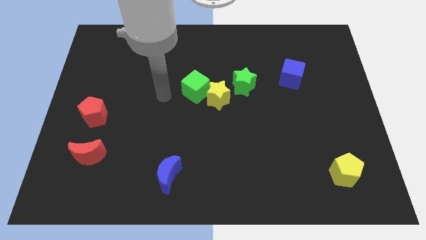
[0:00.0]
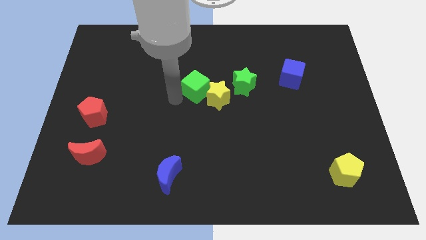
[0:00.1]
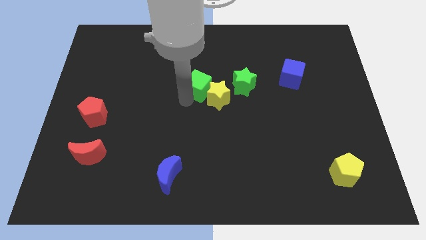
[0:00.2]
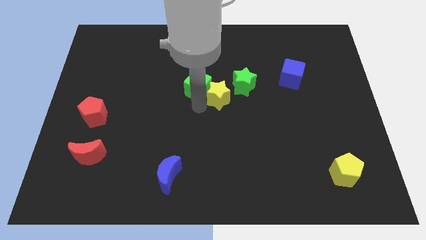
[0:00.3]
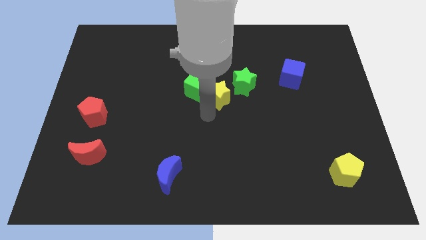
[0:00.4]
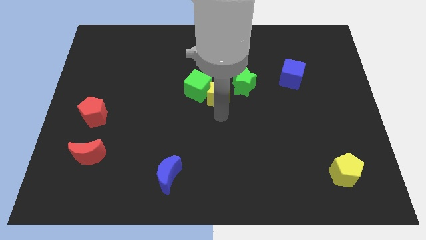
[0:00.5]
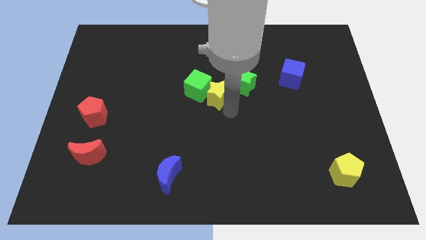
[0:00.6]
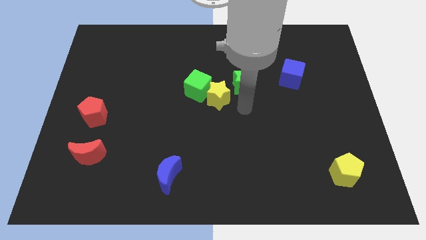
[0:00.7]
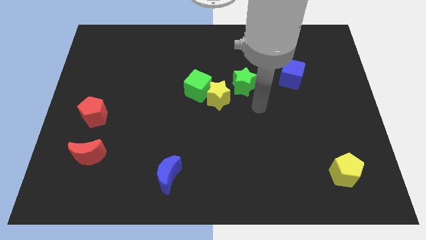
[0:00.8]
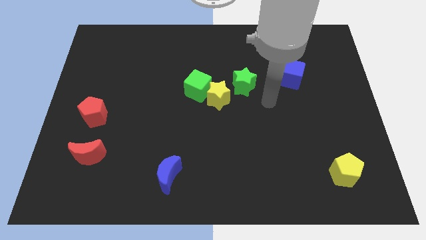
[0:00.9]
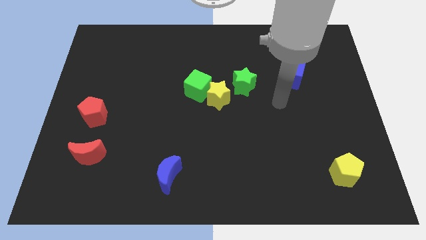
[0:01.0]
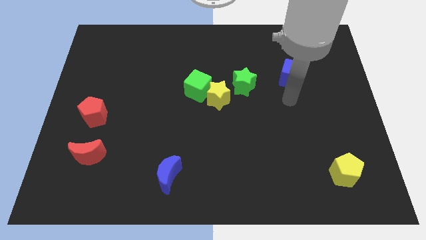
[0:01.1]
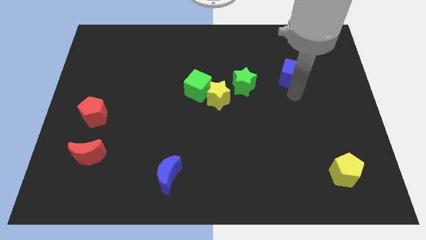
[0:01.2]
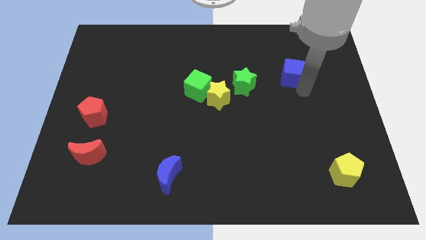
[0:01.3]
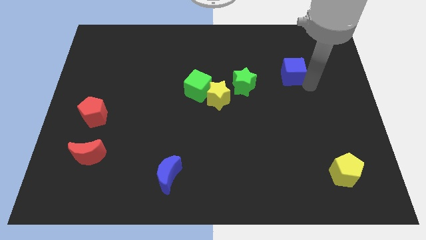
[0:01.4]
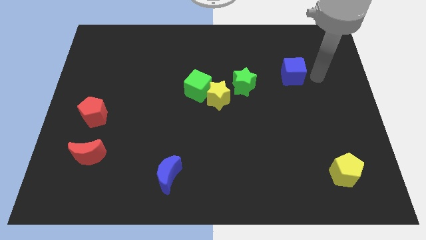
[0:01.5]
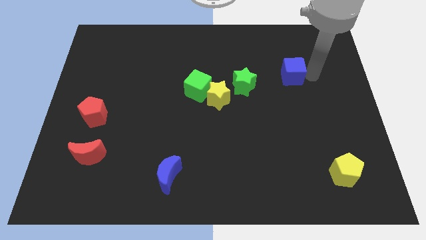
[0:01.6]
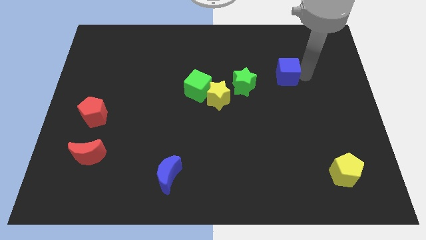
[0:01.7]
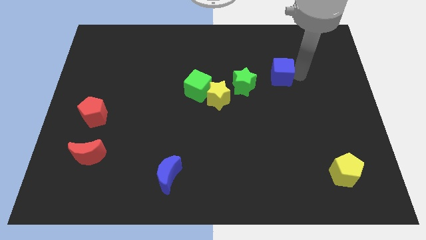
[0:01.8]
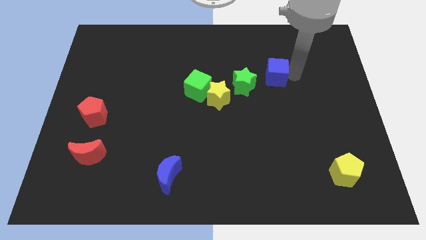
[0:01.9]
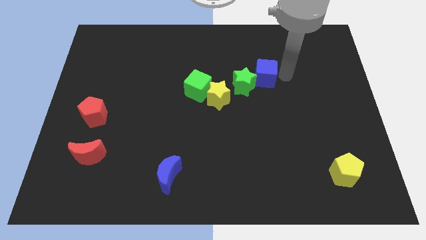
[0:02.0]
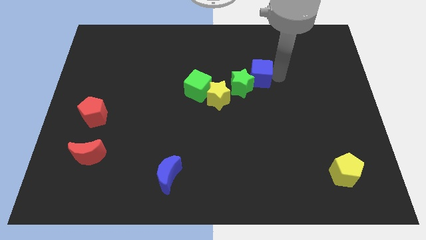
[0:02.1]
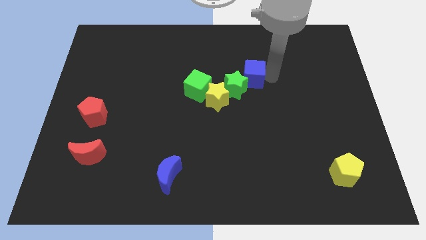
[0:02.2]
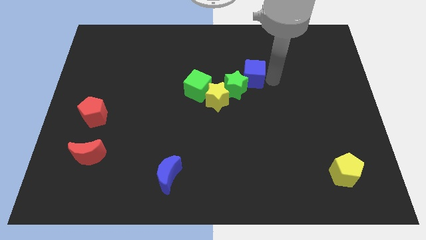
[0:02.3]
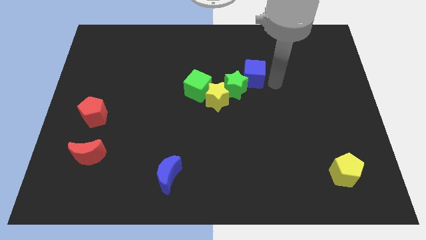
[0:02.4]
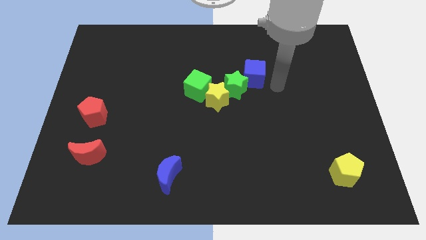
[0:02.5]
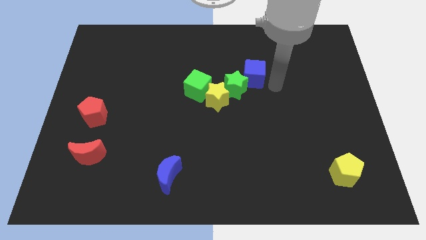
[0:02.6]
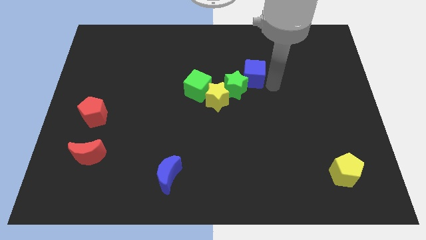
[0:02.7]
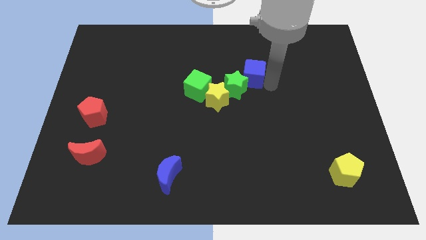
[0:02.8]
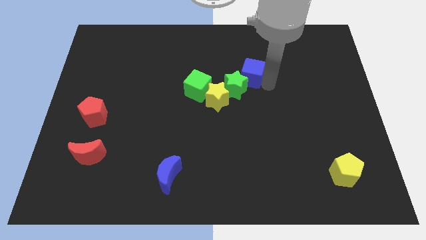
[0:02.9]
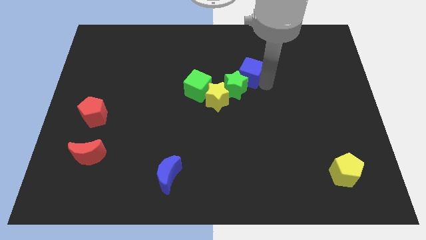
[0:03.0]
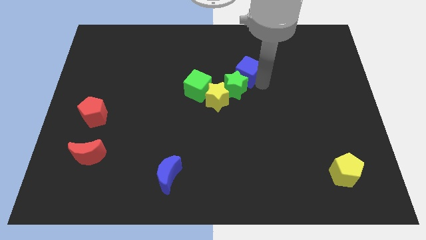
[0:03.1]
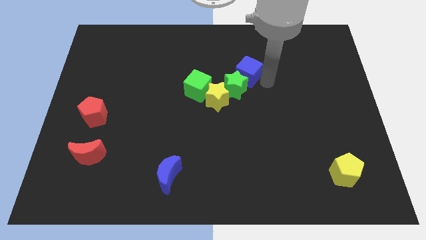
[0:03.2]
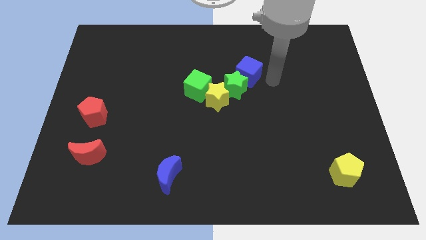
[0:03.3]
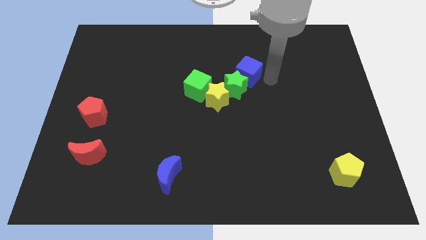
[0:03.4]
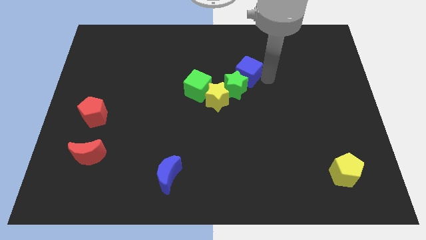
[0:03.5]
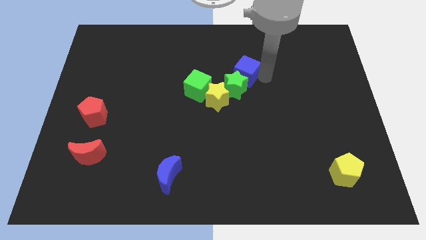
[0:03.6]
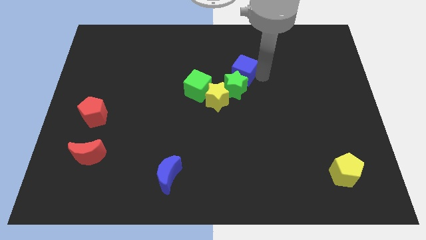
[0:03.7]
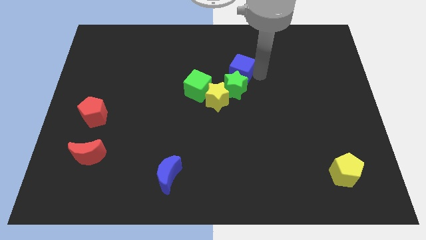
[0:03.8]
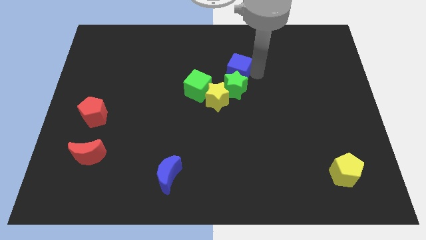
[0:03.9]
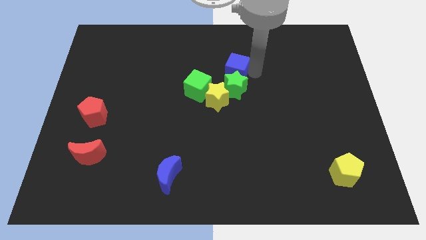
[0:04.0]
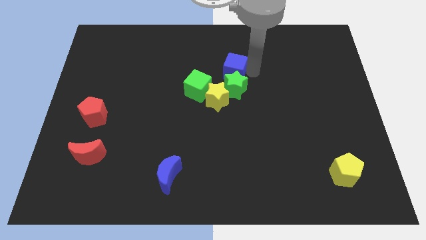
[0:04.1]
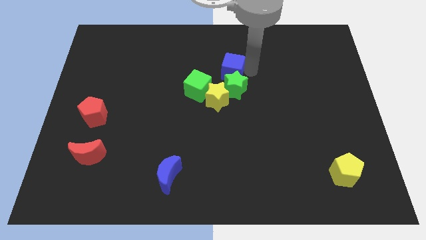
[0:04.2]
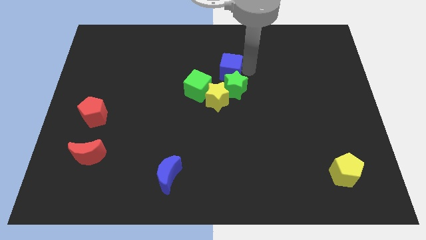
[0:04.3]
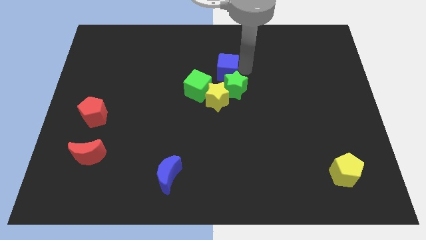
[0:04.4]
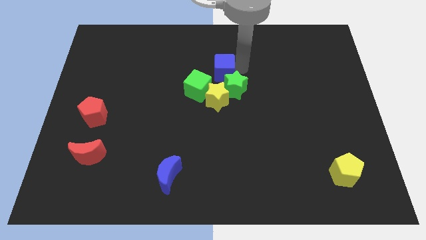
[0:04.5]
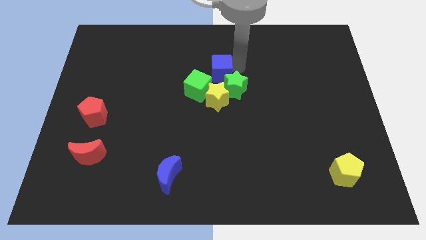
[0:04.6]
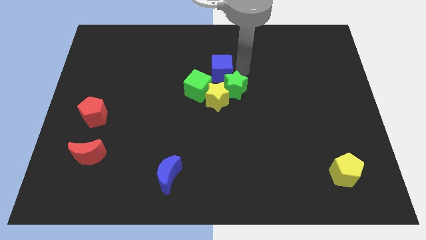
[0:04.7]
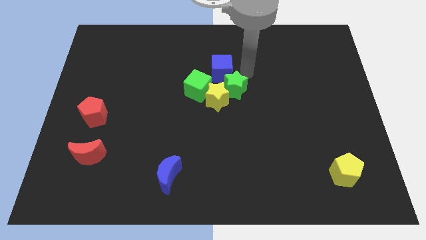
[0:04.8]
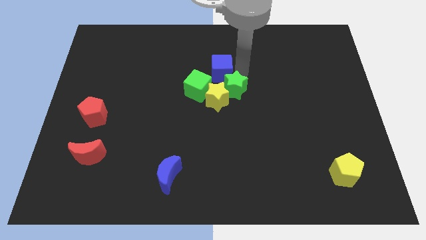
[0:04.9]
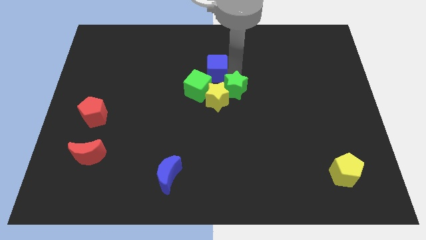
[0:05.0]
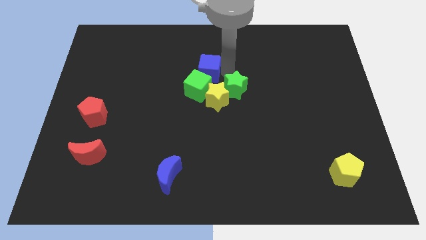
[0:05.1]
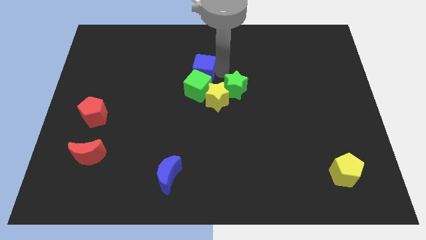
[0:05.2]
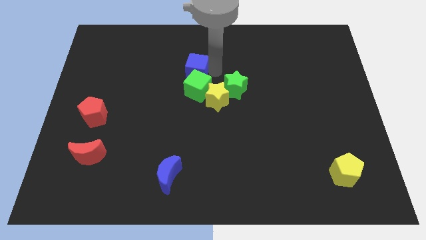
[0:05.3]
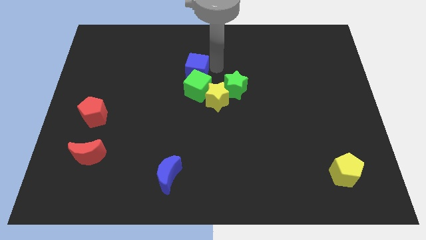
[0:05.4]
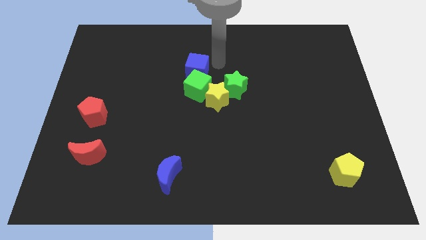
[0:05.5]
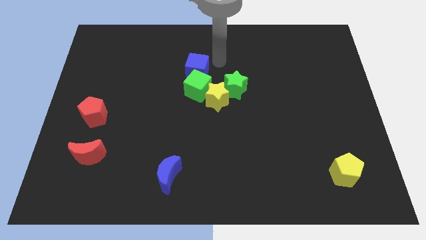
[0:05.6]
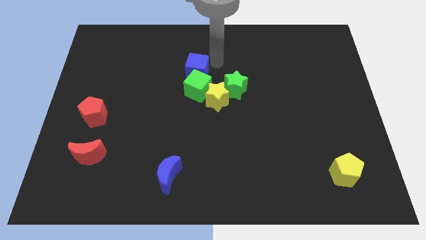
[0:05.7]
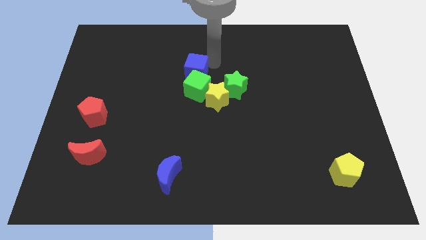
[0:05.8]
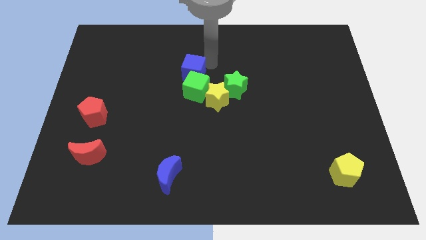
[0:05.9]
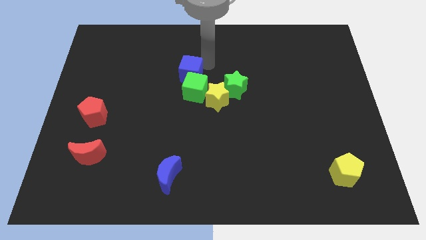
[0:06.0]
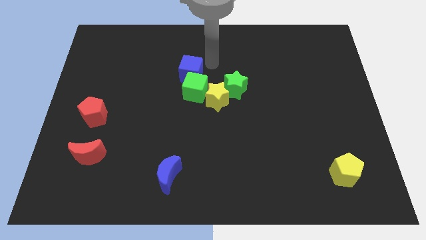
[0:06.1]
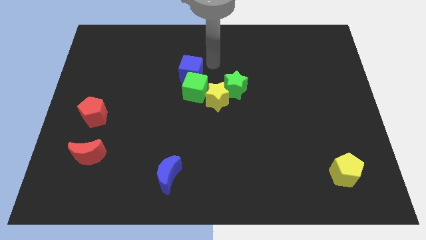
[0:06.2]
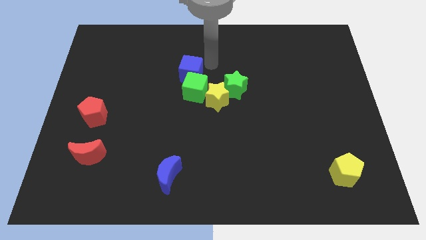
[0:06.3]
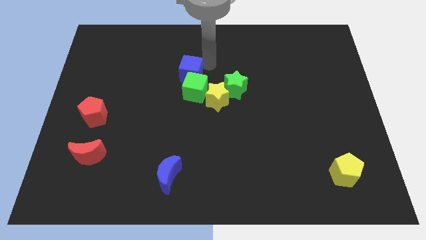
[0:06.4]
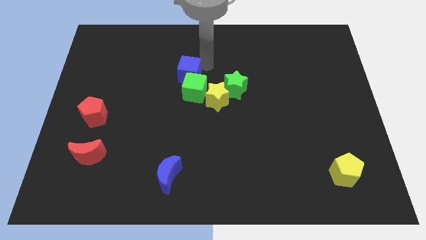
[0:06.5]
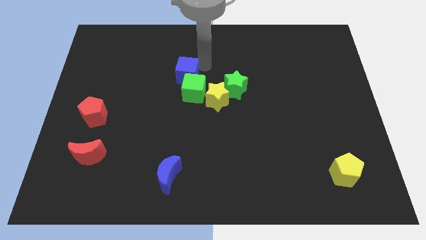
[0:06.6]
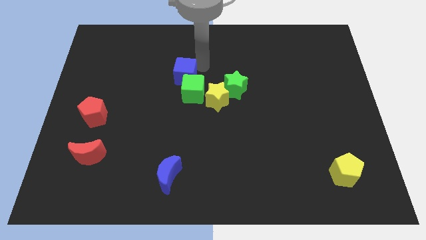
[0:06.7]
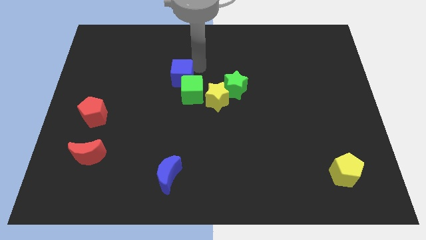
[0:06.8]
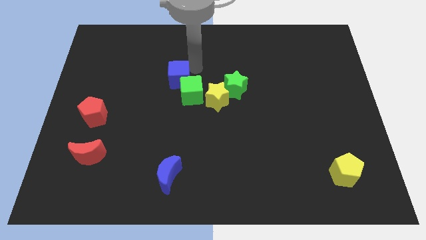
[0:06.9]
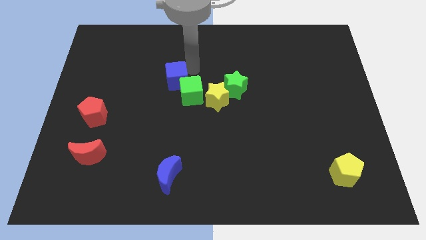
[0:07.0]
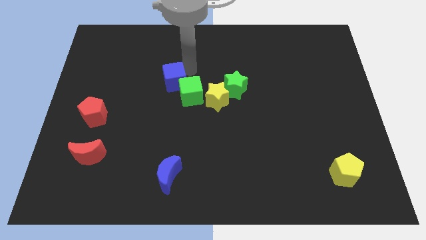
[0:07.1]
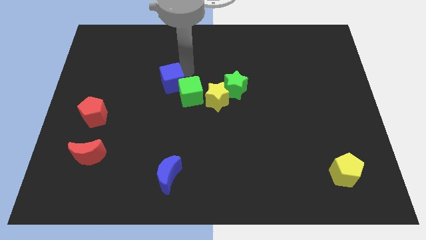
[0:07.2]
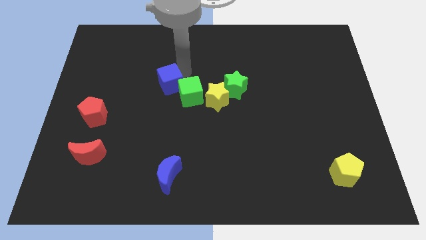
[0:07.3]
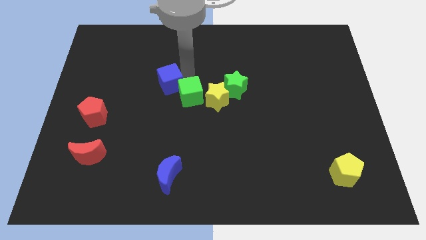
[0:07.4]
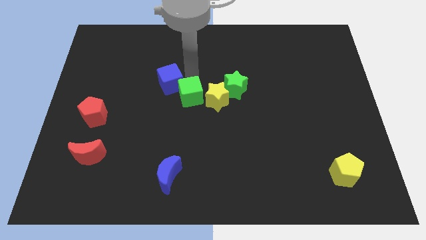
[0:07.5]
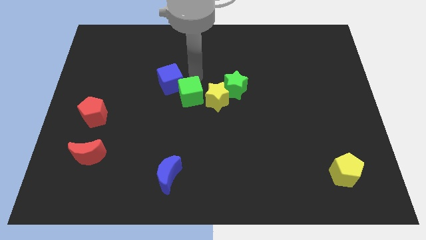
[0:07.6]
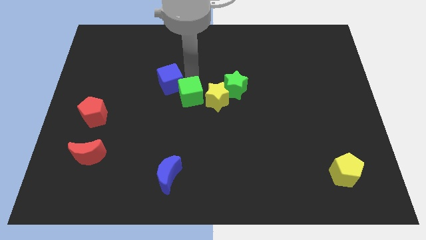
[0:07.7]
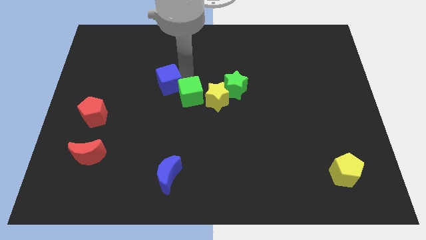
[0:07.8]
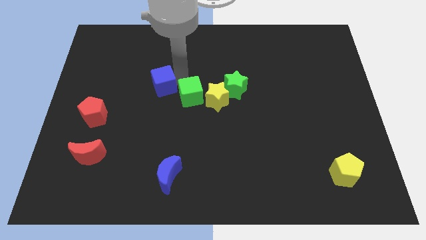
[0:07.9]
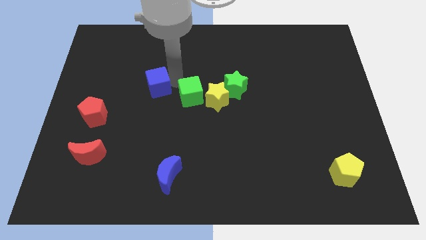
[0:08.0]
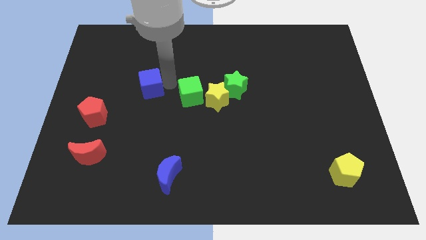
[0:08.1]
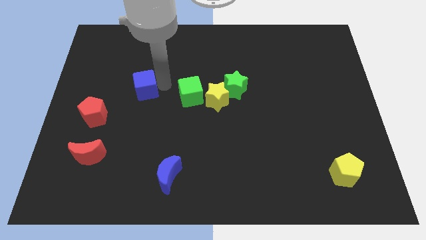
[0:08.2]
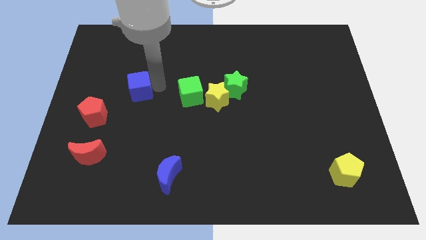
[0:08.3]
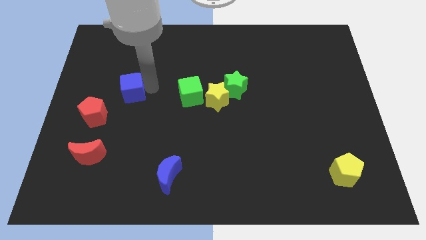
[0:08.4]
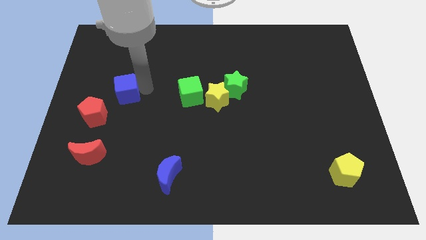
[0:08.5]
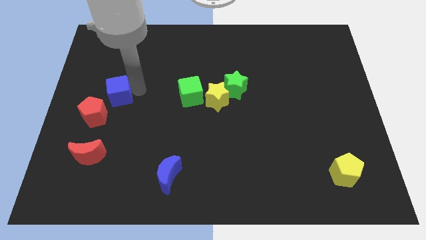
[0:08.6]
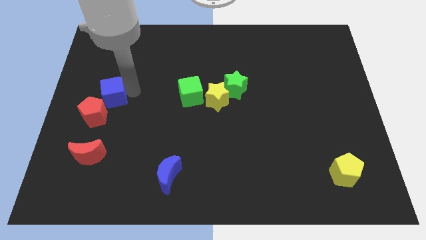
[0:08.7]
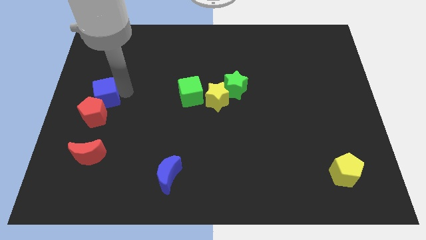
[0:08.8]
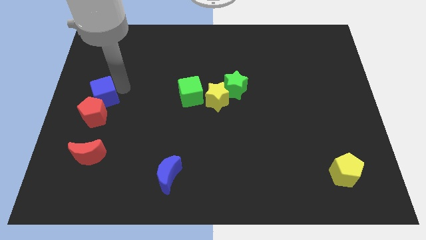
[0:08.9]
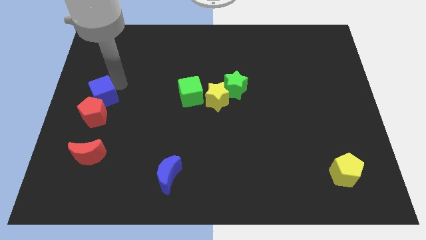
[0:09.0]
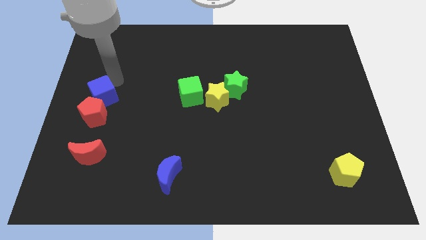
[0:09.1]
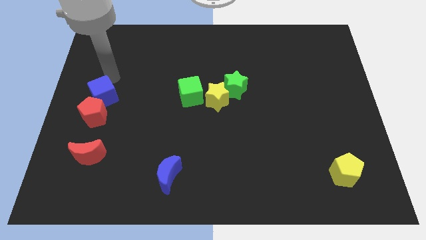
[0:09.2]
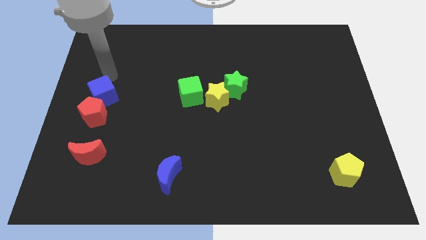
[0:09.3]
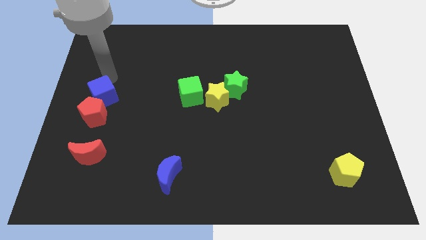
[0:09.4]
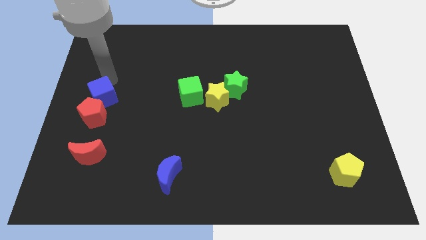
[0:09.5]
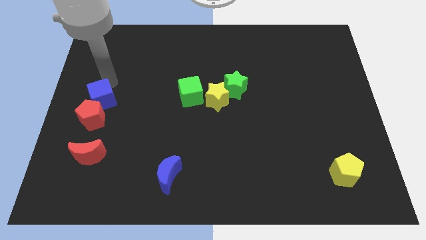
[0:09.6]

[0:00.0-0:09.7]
put the blue cube to the top side of the red moon
